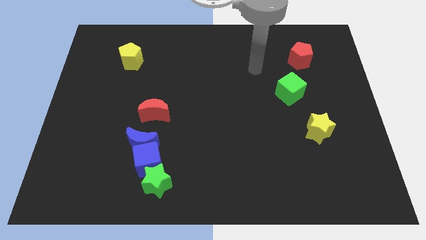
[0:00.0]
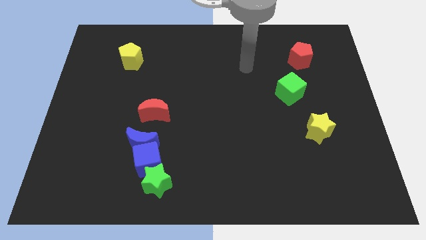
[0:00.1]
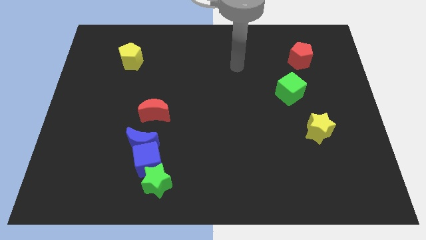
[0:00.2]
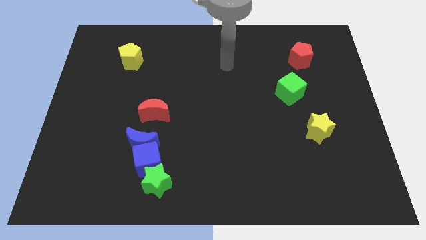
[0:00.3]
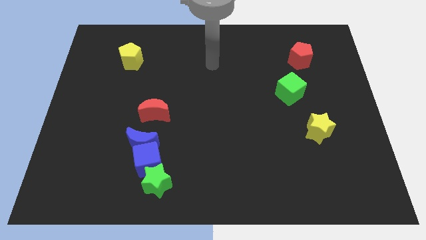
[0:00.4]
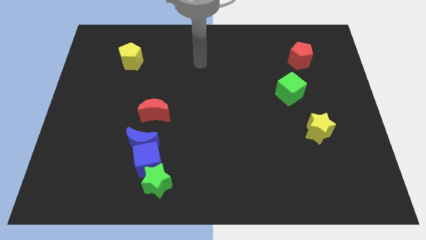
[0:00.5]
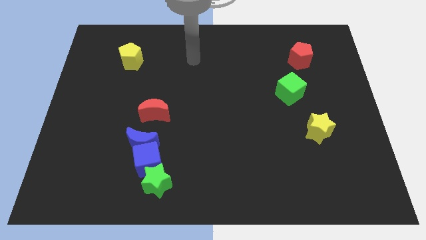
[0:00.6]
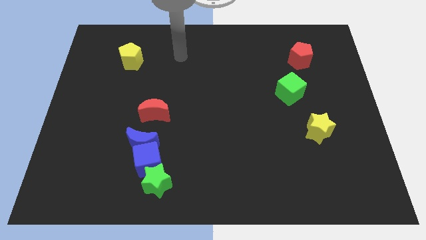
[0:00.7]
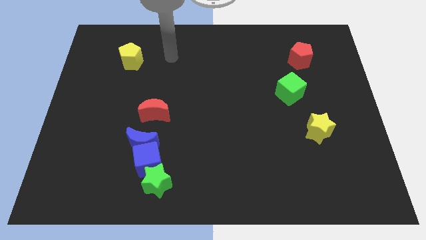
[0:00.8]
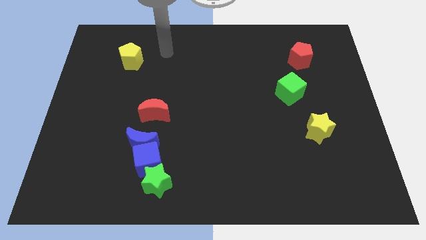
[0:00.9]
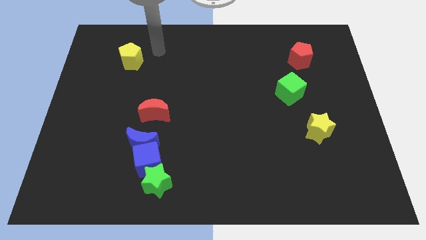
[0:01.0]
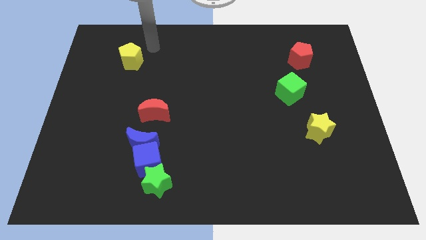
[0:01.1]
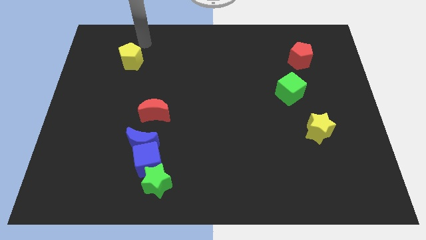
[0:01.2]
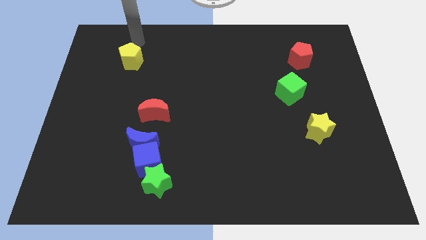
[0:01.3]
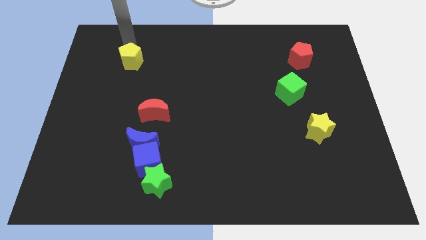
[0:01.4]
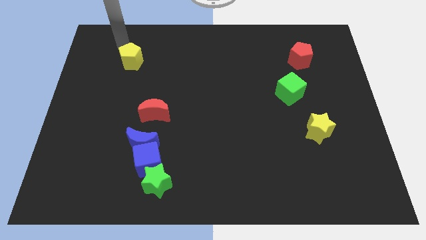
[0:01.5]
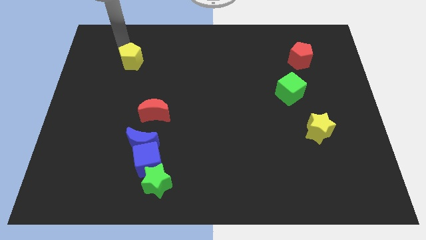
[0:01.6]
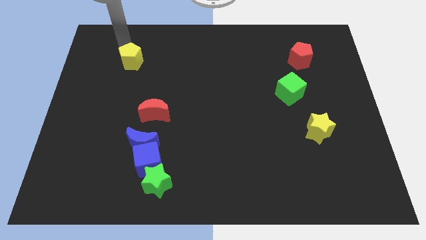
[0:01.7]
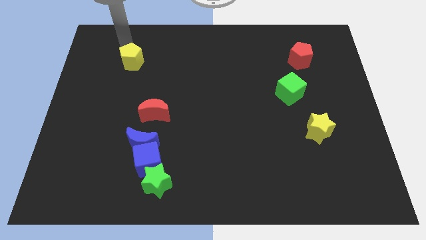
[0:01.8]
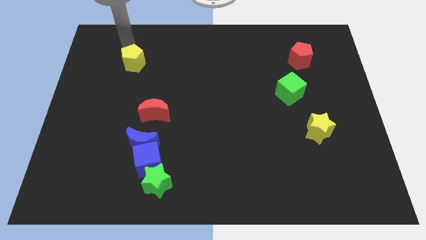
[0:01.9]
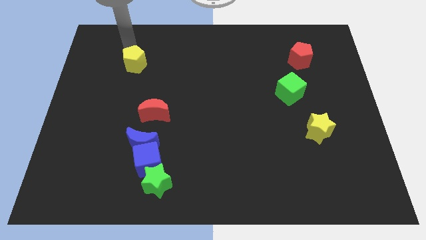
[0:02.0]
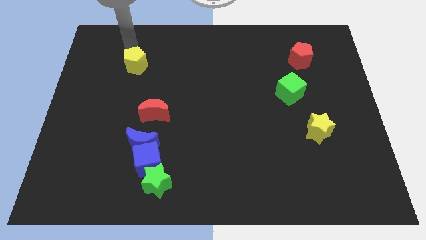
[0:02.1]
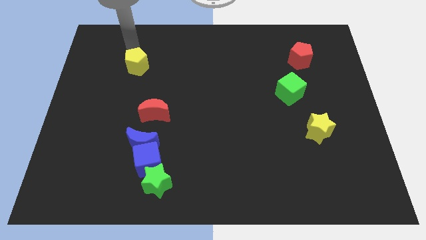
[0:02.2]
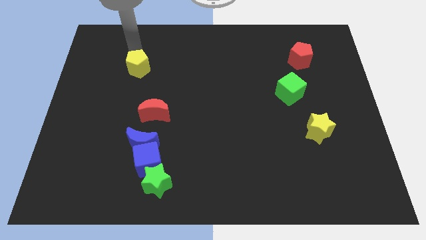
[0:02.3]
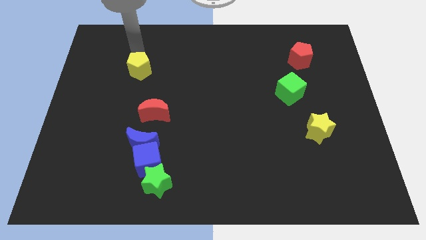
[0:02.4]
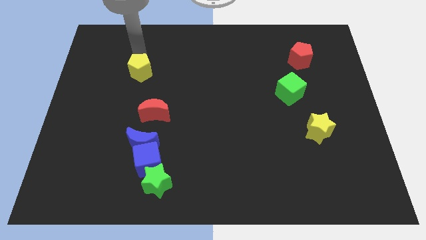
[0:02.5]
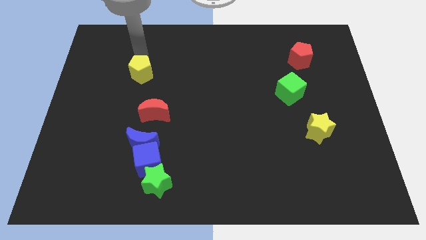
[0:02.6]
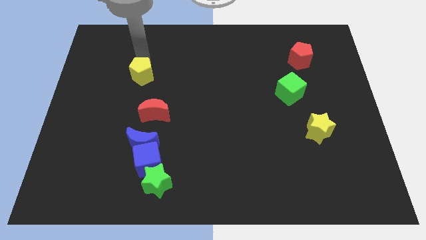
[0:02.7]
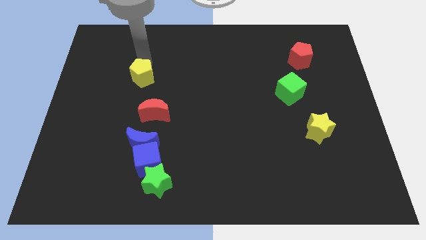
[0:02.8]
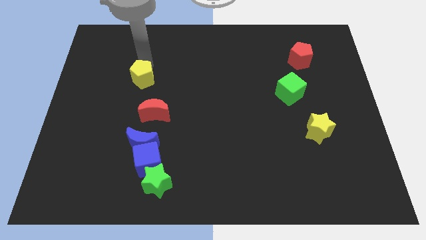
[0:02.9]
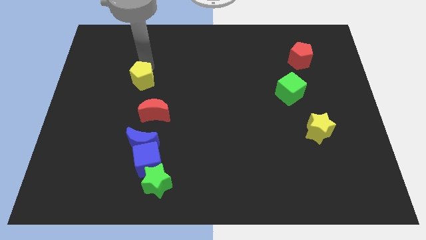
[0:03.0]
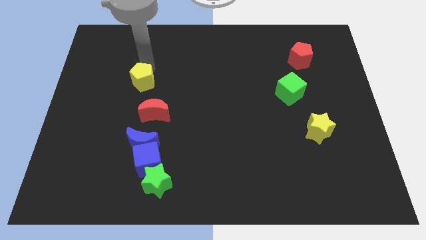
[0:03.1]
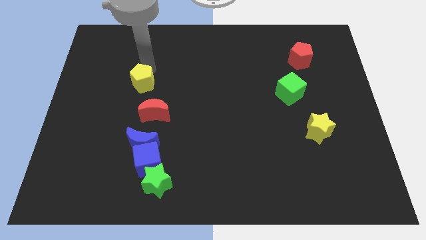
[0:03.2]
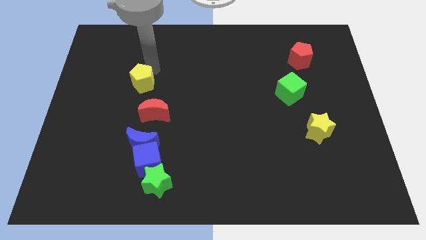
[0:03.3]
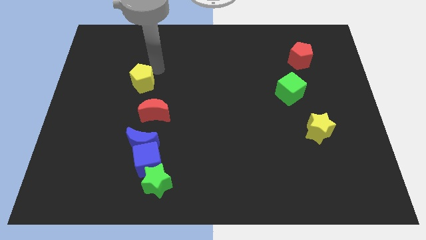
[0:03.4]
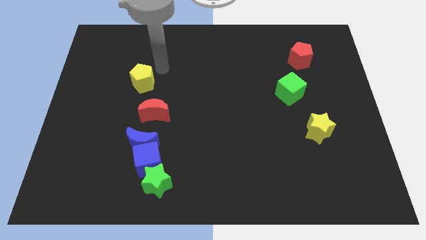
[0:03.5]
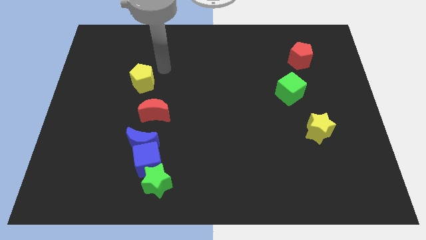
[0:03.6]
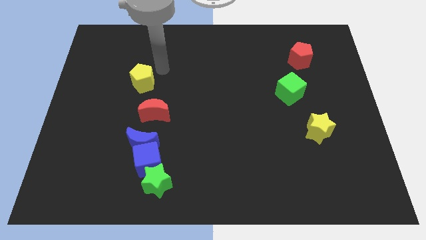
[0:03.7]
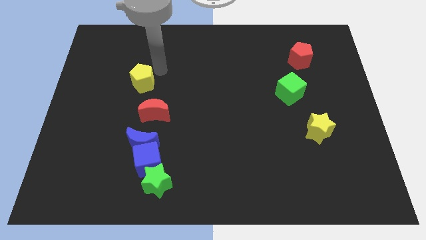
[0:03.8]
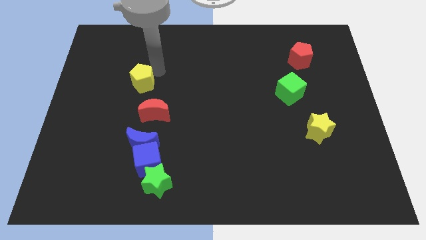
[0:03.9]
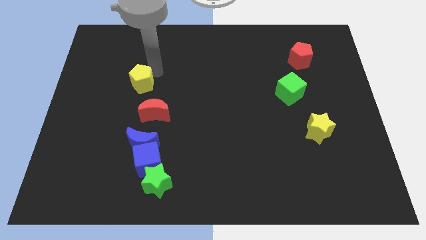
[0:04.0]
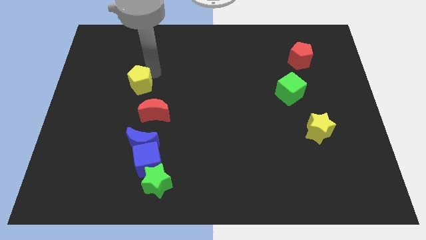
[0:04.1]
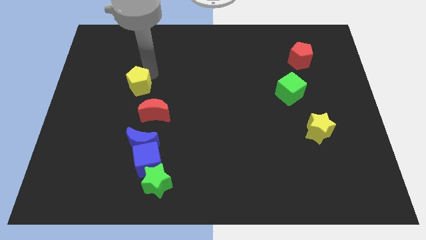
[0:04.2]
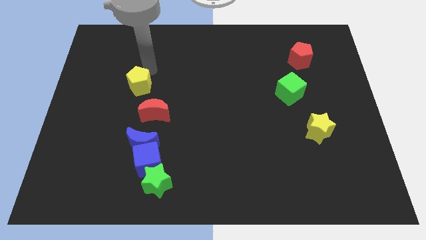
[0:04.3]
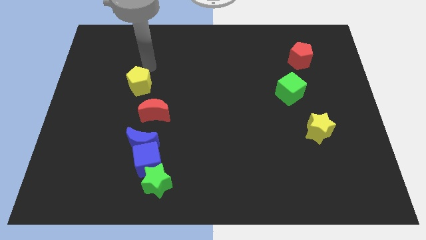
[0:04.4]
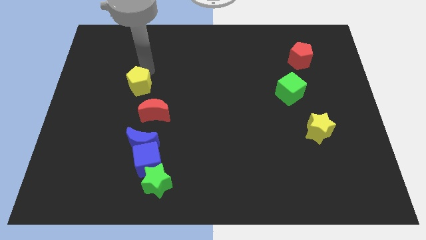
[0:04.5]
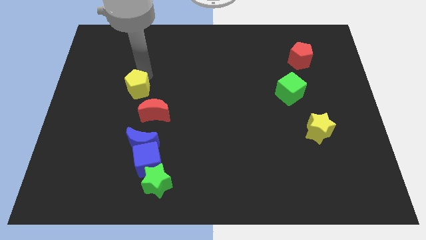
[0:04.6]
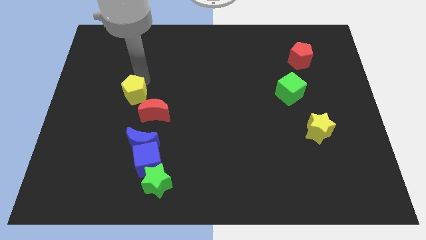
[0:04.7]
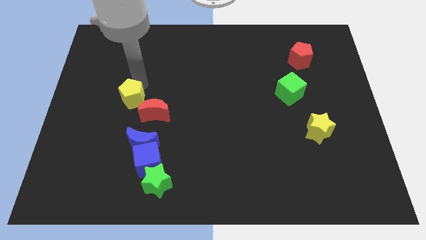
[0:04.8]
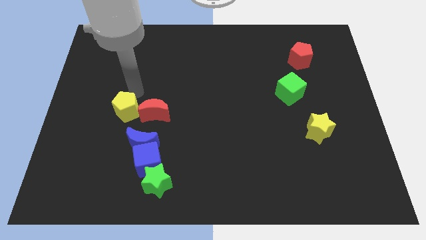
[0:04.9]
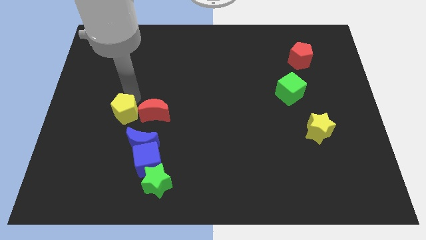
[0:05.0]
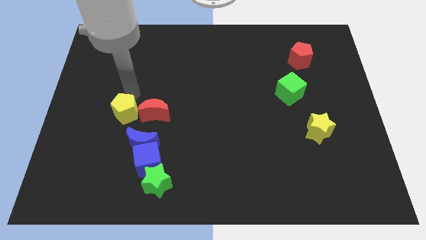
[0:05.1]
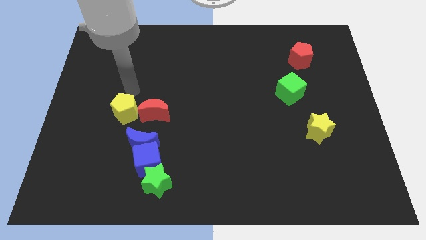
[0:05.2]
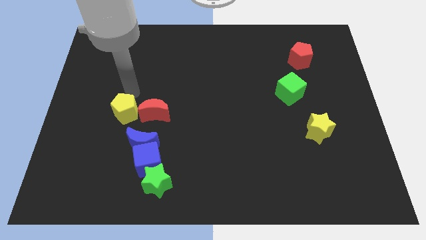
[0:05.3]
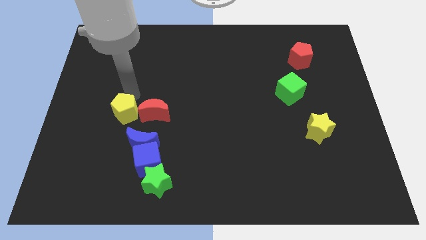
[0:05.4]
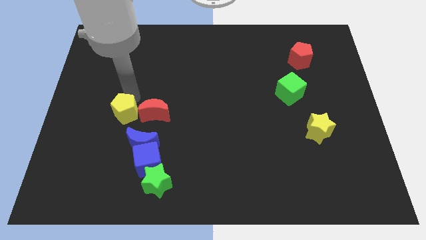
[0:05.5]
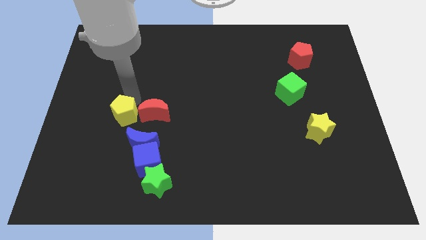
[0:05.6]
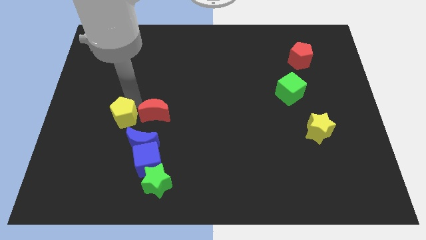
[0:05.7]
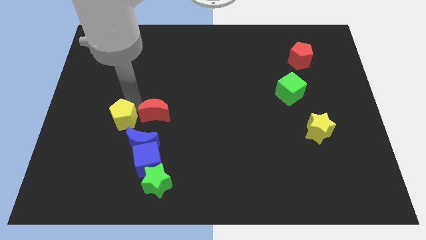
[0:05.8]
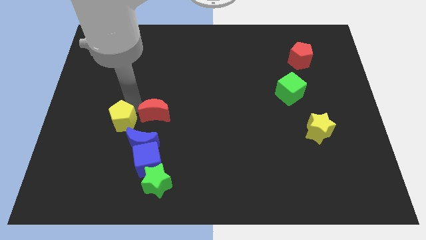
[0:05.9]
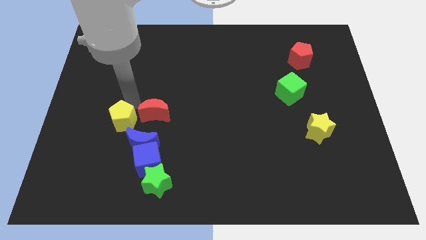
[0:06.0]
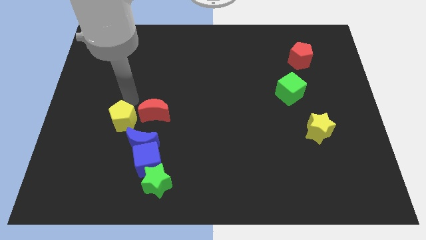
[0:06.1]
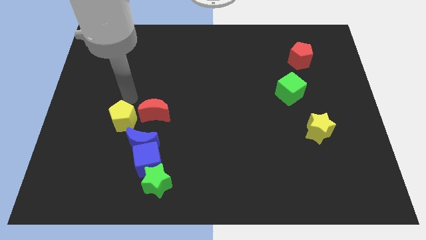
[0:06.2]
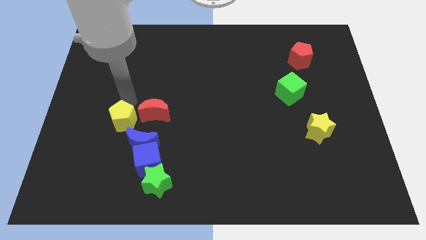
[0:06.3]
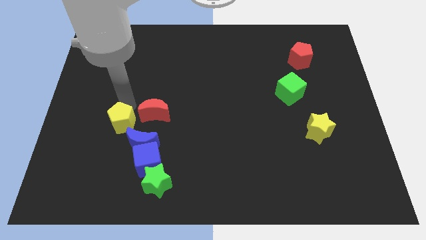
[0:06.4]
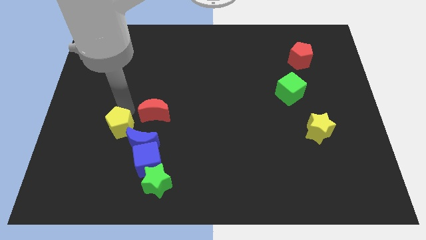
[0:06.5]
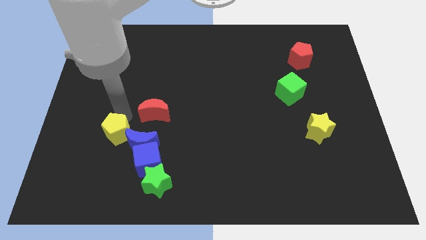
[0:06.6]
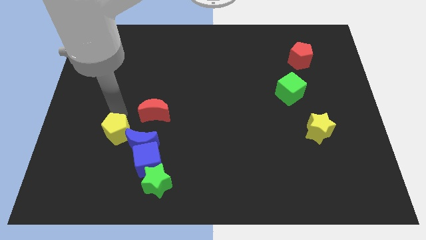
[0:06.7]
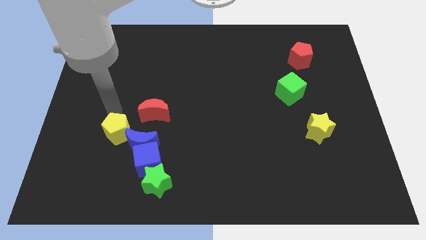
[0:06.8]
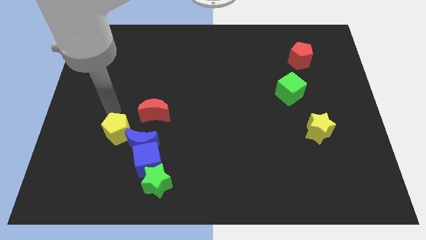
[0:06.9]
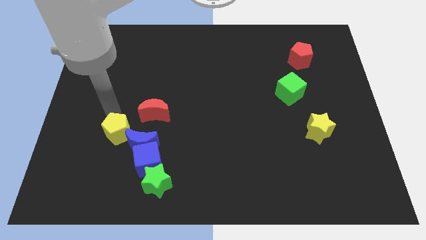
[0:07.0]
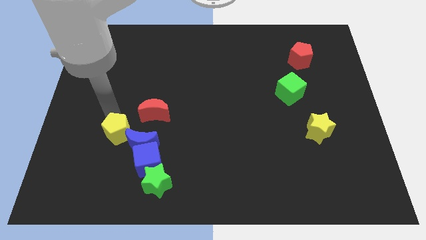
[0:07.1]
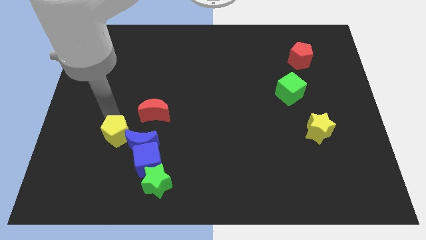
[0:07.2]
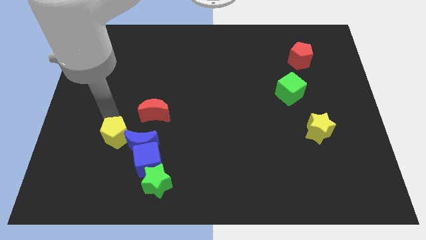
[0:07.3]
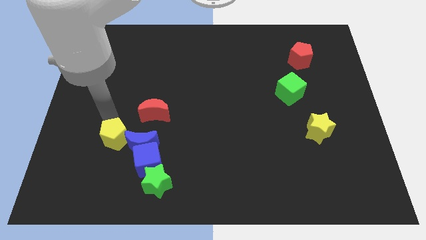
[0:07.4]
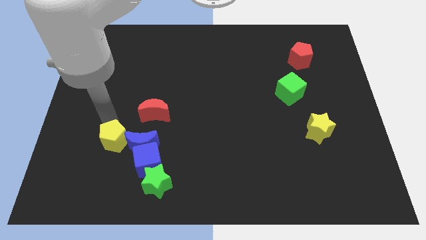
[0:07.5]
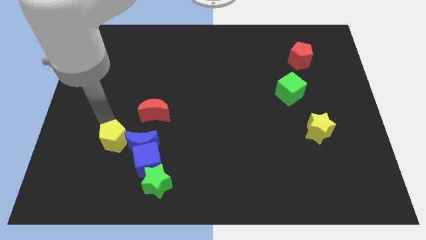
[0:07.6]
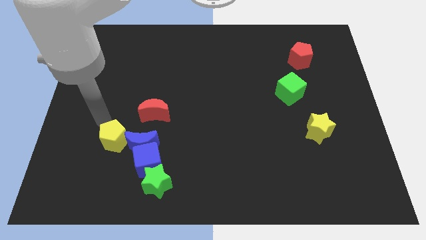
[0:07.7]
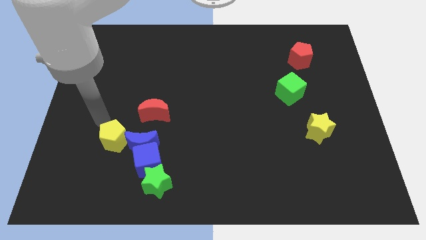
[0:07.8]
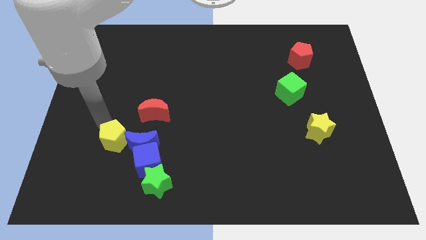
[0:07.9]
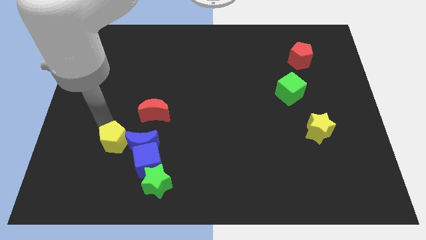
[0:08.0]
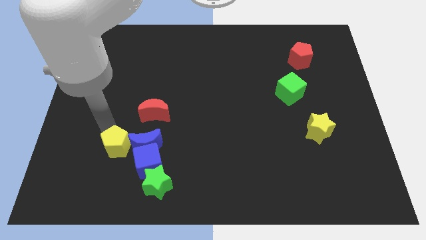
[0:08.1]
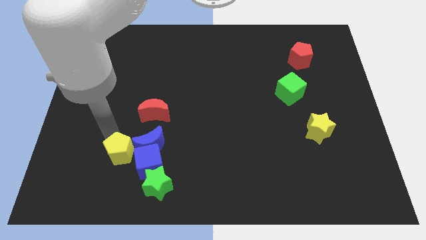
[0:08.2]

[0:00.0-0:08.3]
move the yellow pentagon to the top left side of the green star

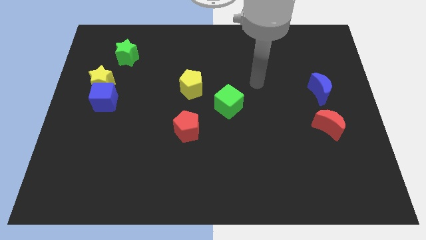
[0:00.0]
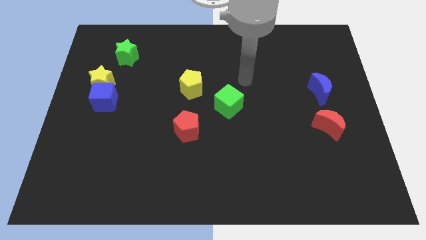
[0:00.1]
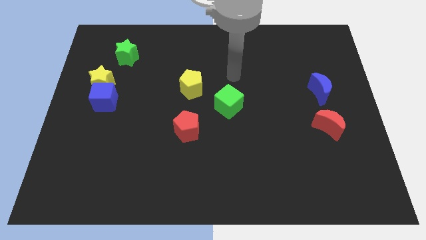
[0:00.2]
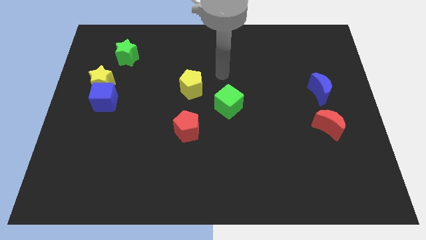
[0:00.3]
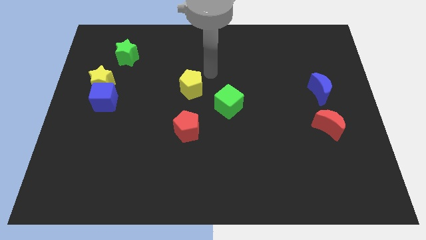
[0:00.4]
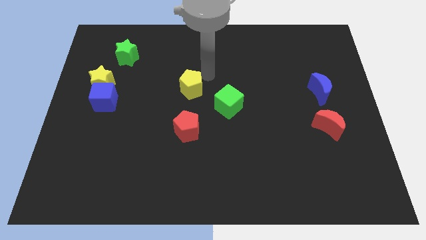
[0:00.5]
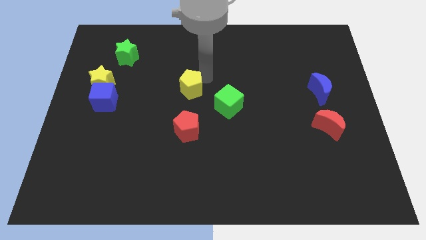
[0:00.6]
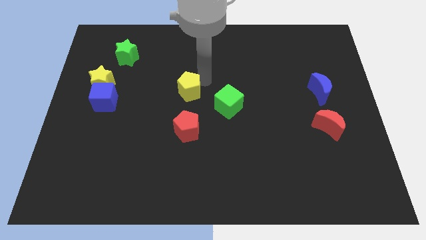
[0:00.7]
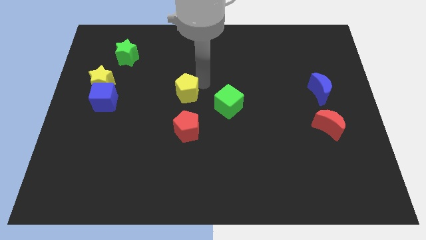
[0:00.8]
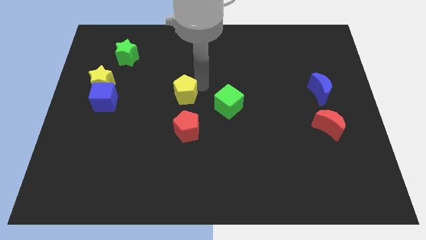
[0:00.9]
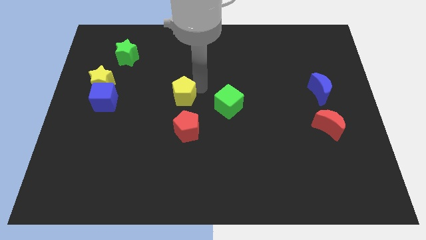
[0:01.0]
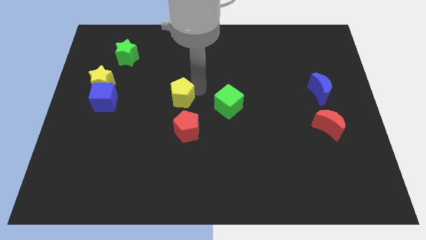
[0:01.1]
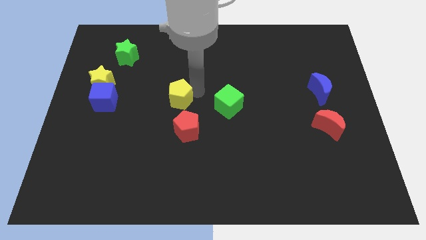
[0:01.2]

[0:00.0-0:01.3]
push the yellow pentagon diagonally up and to the left of the red pentagon
